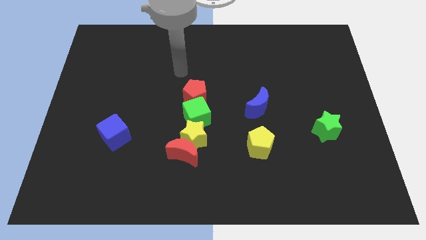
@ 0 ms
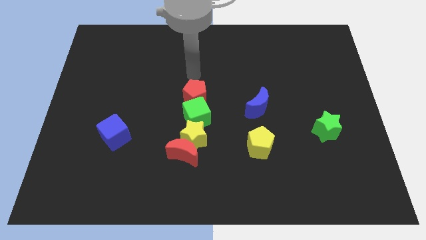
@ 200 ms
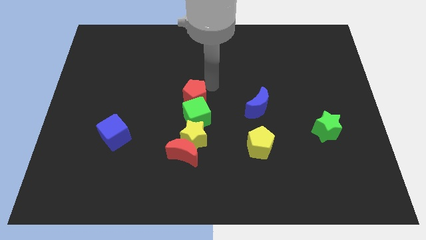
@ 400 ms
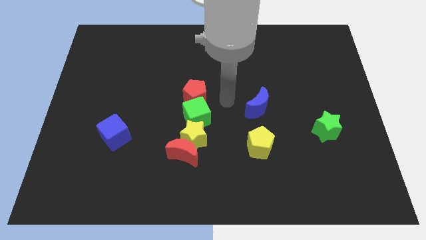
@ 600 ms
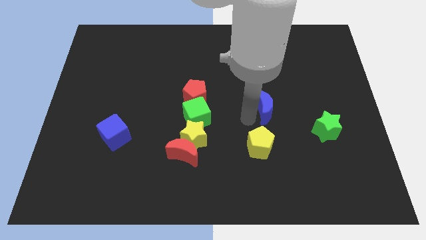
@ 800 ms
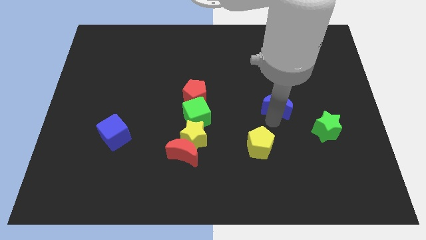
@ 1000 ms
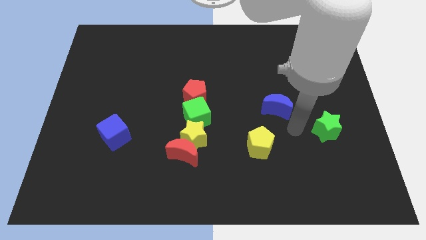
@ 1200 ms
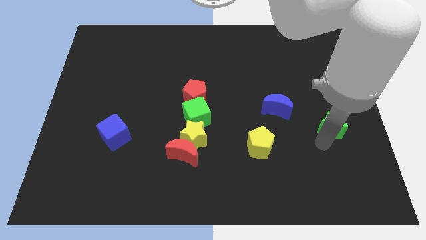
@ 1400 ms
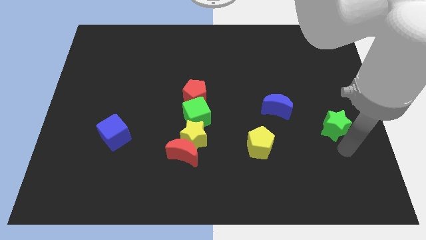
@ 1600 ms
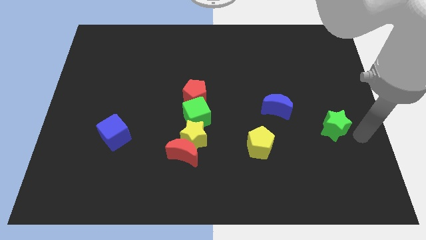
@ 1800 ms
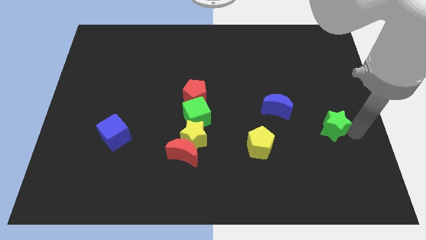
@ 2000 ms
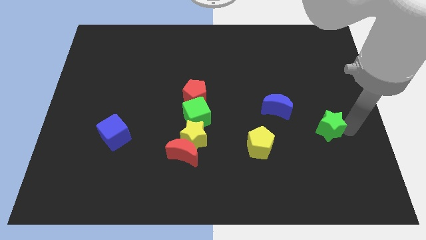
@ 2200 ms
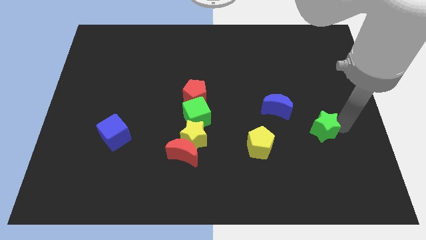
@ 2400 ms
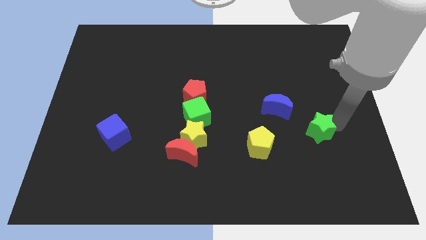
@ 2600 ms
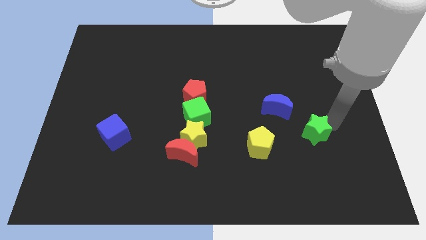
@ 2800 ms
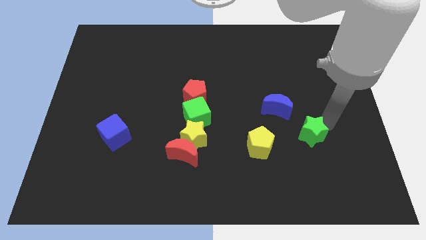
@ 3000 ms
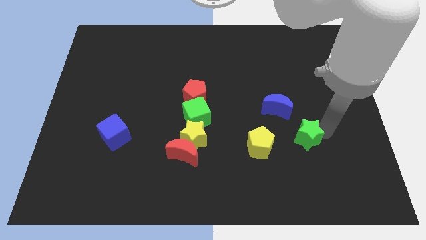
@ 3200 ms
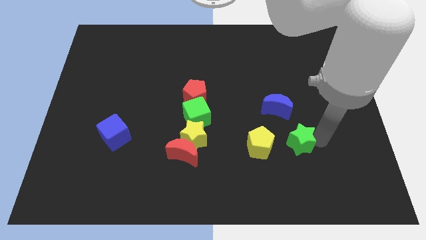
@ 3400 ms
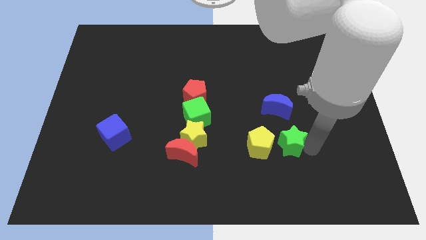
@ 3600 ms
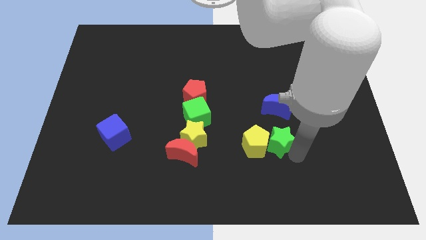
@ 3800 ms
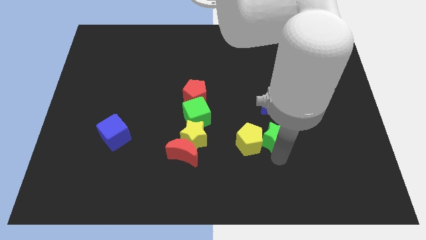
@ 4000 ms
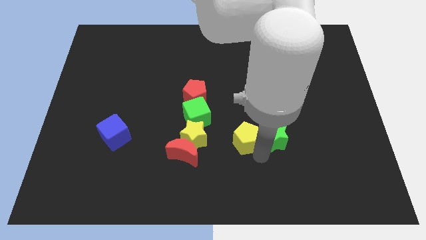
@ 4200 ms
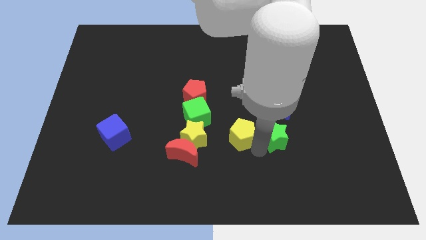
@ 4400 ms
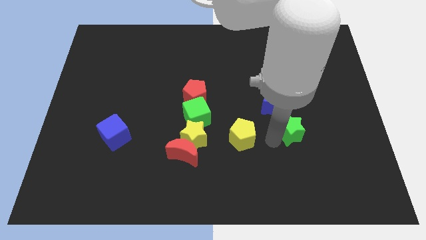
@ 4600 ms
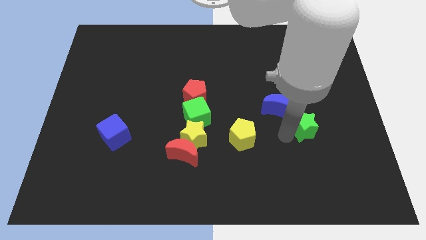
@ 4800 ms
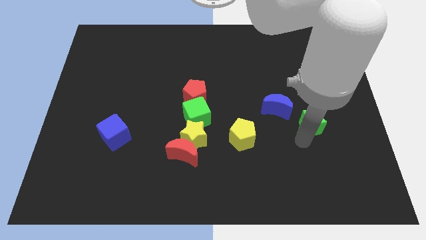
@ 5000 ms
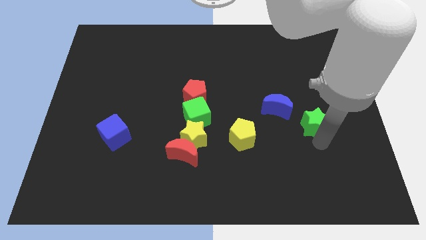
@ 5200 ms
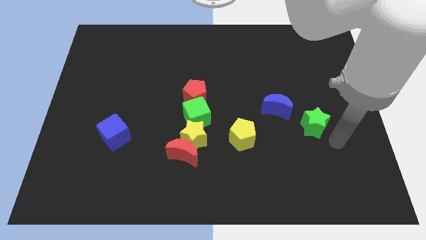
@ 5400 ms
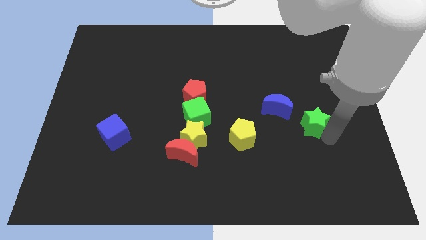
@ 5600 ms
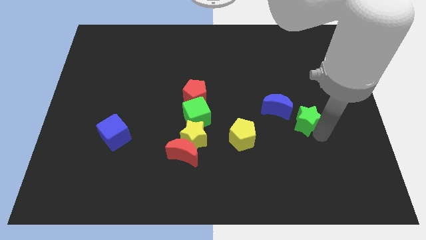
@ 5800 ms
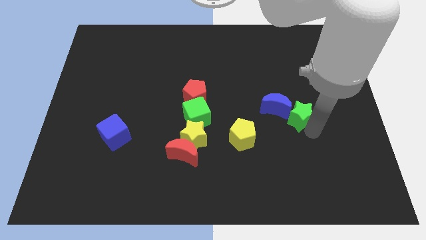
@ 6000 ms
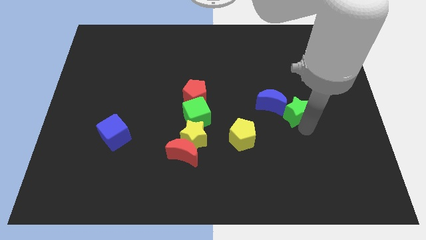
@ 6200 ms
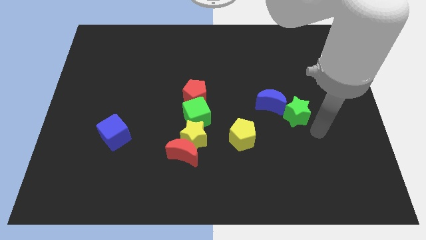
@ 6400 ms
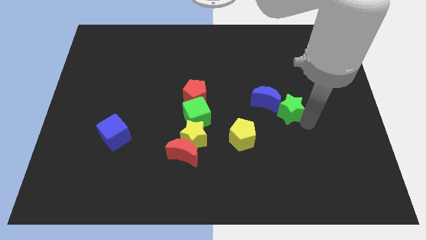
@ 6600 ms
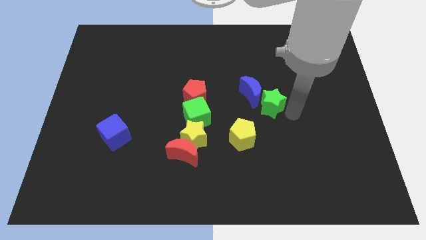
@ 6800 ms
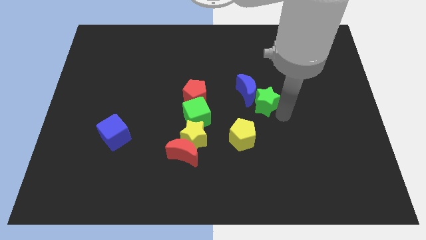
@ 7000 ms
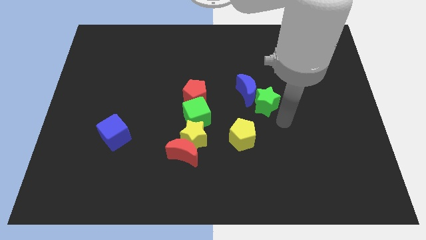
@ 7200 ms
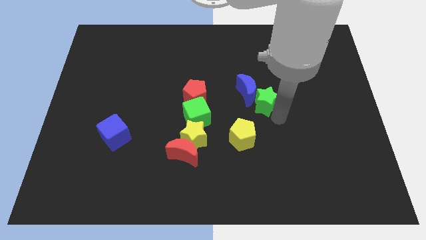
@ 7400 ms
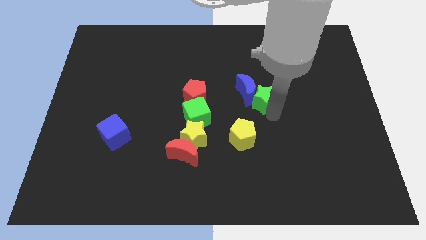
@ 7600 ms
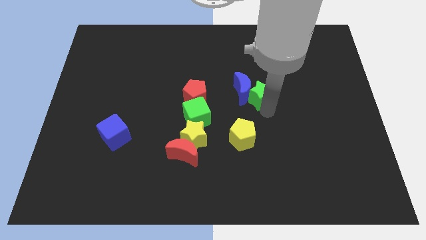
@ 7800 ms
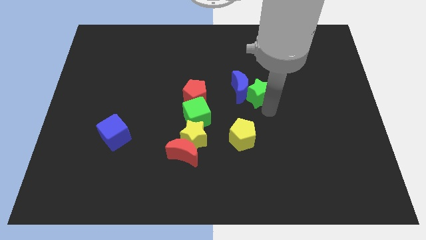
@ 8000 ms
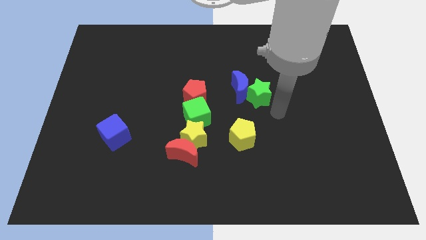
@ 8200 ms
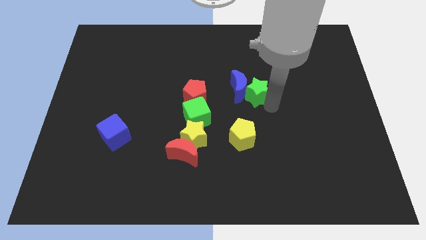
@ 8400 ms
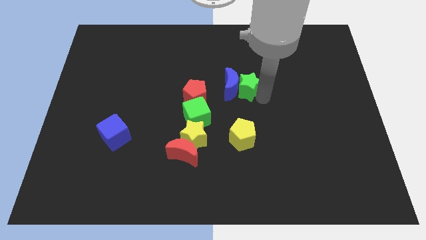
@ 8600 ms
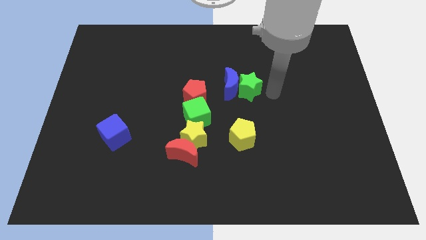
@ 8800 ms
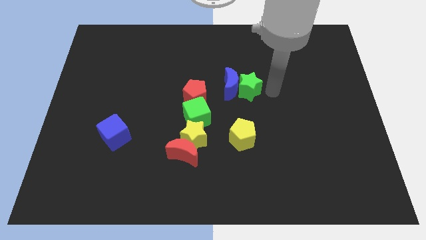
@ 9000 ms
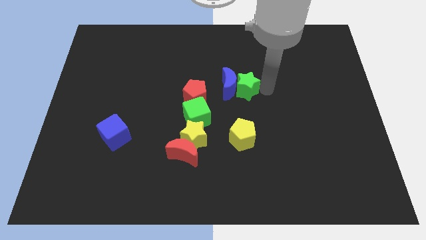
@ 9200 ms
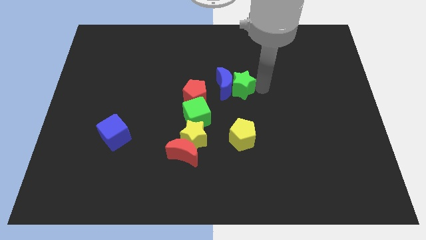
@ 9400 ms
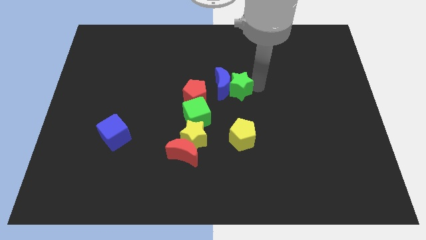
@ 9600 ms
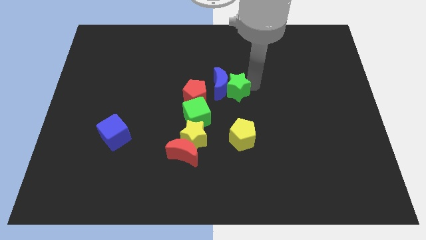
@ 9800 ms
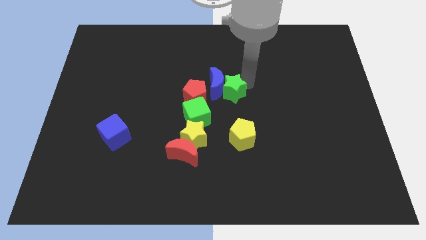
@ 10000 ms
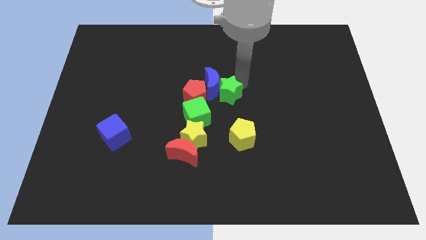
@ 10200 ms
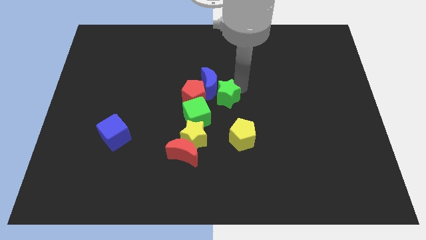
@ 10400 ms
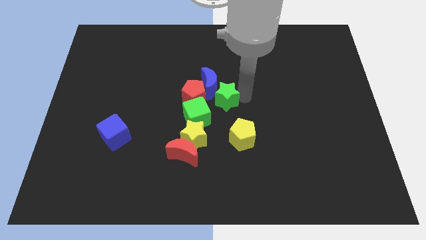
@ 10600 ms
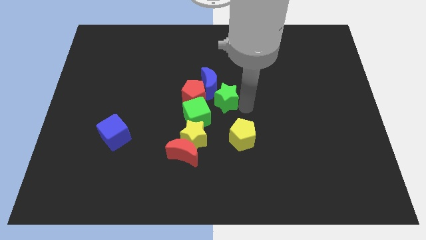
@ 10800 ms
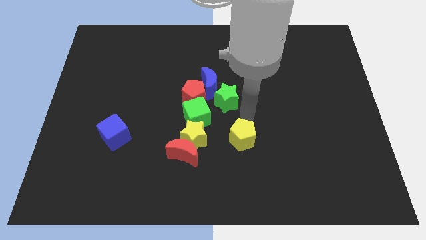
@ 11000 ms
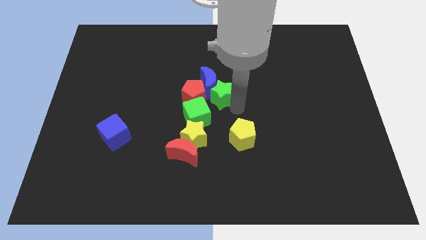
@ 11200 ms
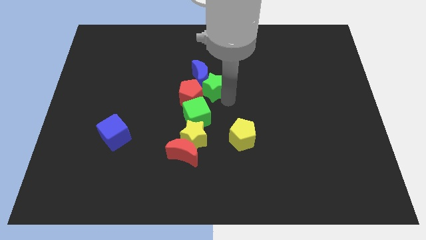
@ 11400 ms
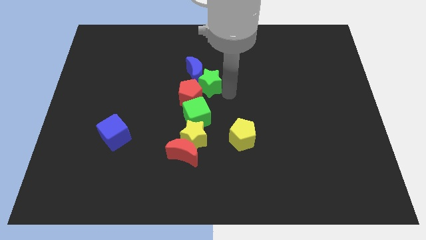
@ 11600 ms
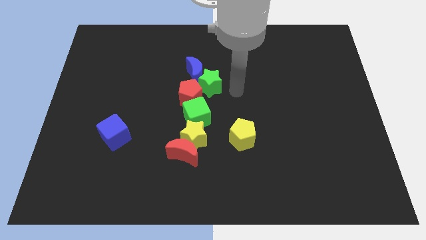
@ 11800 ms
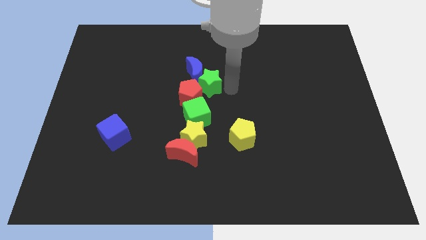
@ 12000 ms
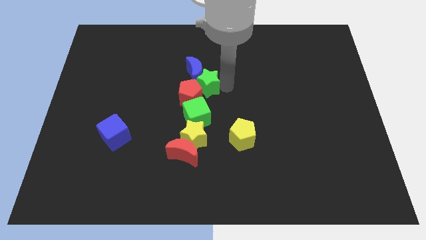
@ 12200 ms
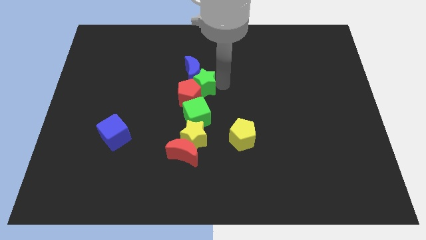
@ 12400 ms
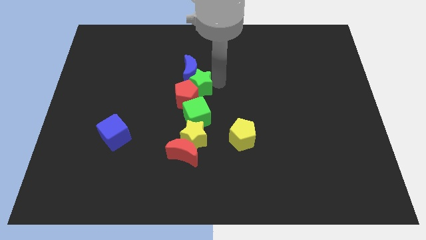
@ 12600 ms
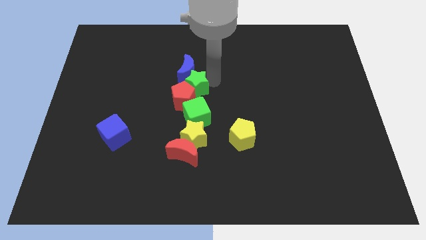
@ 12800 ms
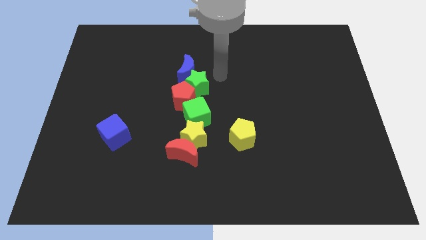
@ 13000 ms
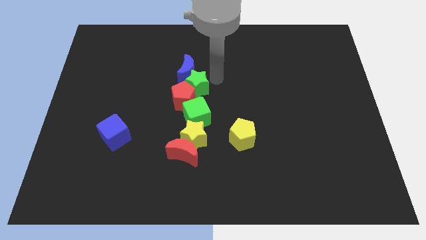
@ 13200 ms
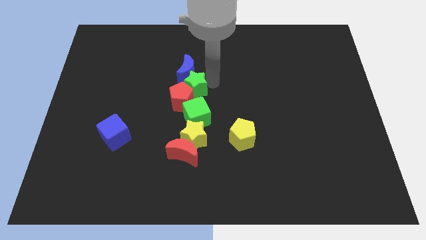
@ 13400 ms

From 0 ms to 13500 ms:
push the green star left

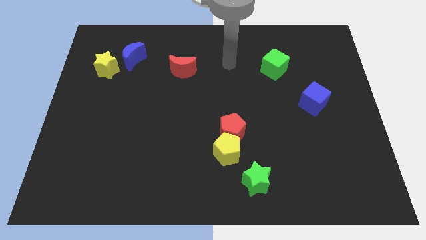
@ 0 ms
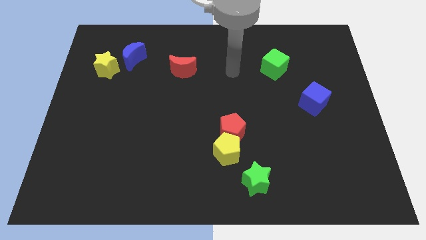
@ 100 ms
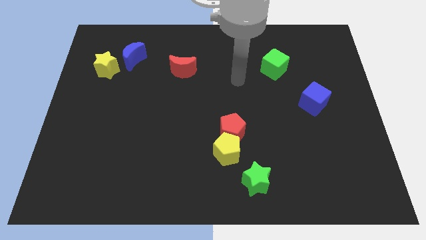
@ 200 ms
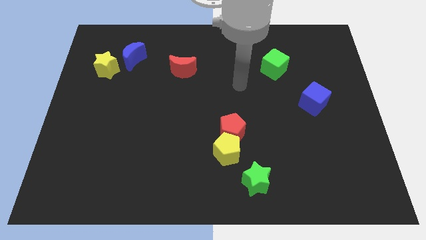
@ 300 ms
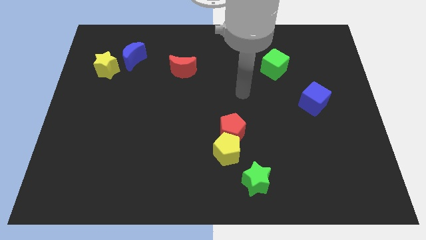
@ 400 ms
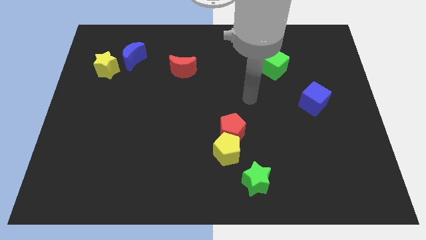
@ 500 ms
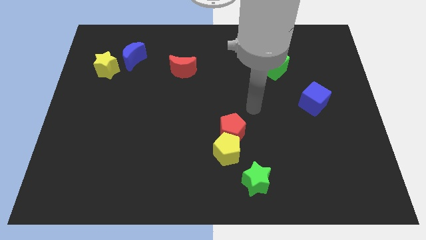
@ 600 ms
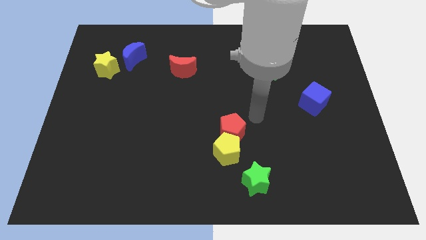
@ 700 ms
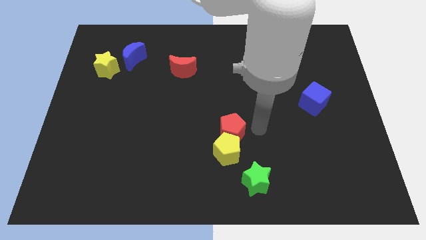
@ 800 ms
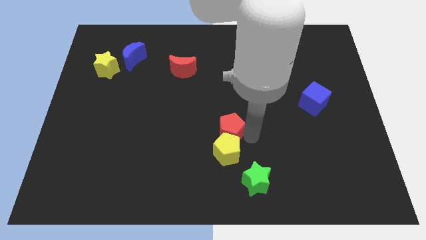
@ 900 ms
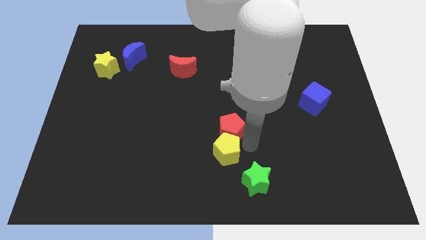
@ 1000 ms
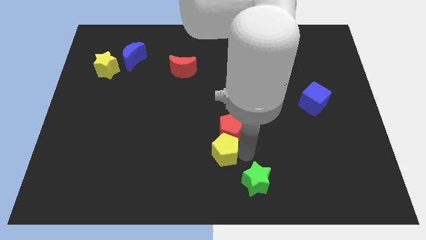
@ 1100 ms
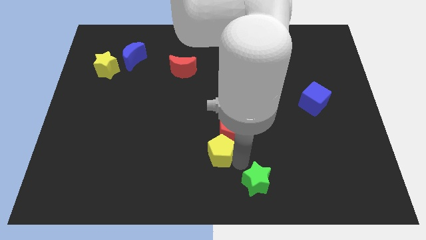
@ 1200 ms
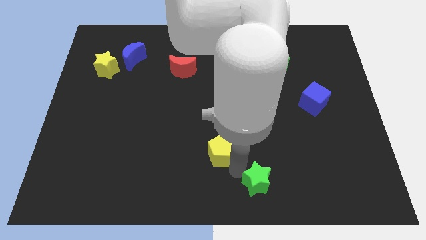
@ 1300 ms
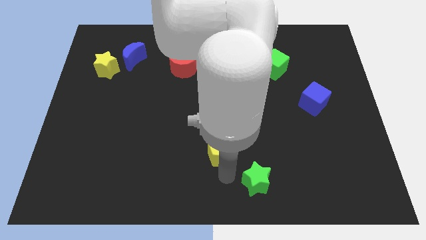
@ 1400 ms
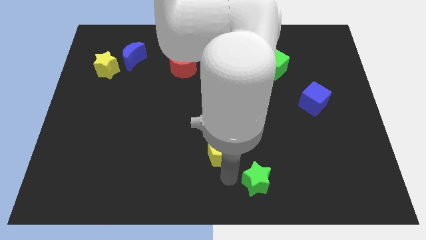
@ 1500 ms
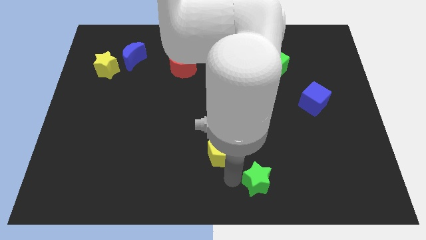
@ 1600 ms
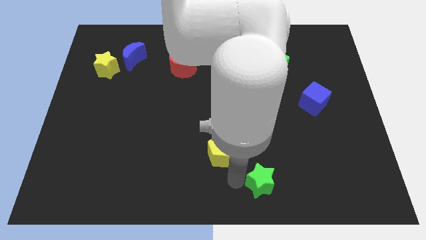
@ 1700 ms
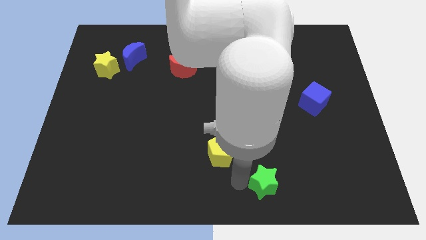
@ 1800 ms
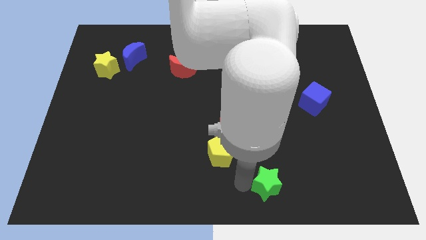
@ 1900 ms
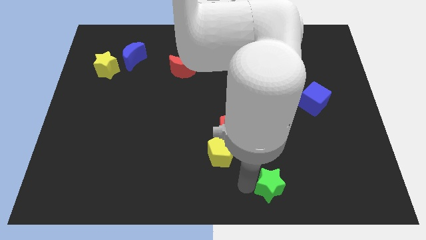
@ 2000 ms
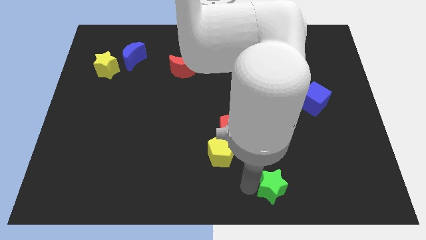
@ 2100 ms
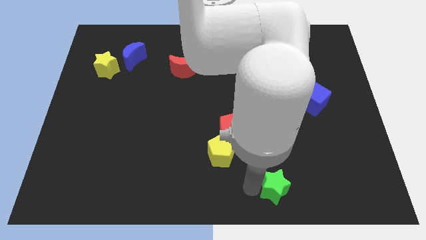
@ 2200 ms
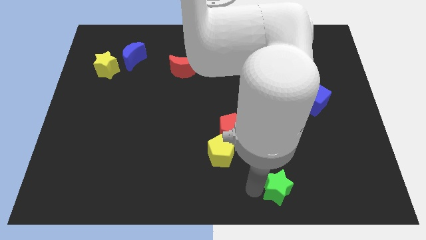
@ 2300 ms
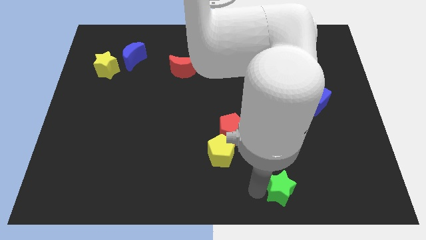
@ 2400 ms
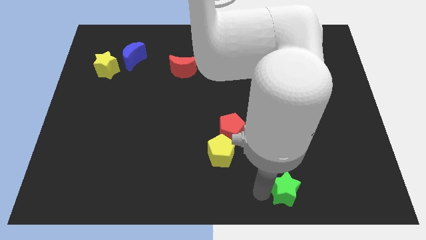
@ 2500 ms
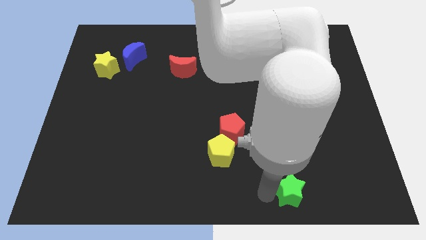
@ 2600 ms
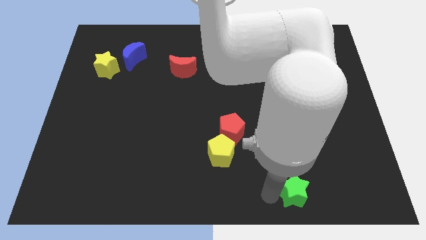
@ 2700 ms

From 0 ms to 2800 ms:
move the green star slightly right
